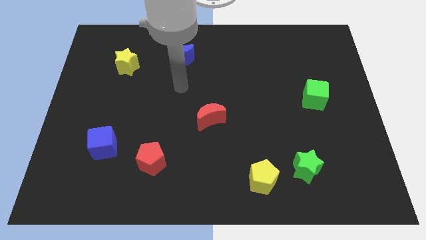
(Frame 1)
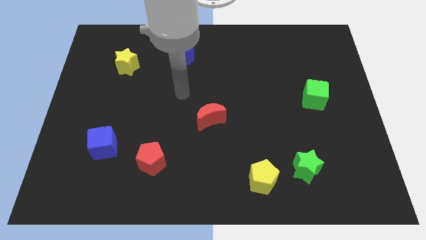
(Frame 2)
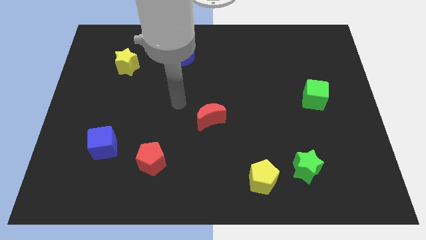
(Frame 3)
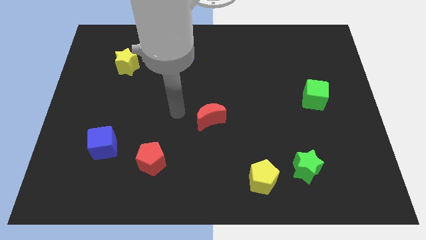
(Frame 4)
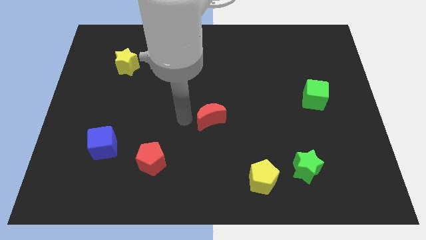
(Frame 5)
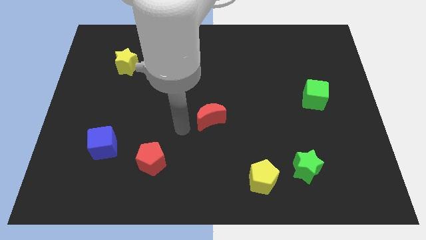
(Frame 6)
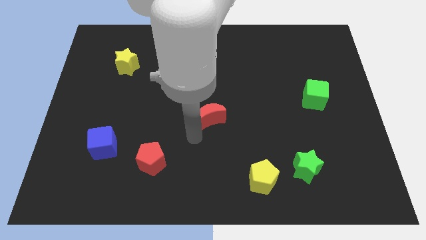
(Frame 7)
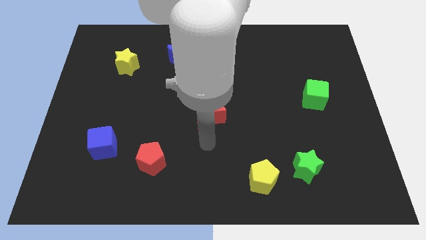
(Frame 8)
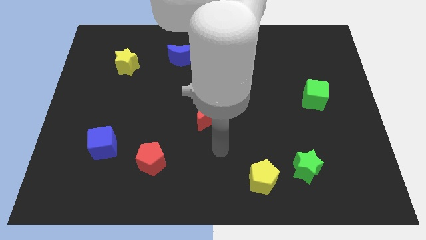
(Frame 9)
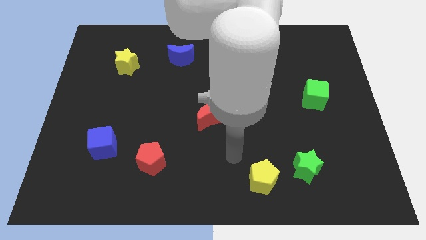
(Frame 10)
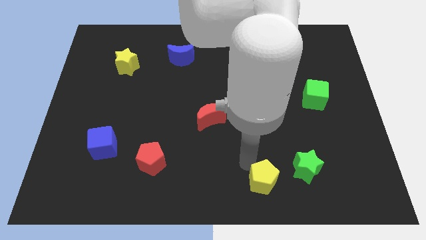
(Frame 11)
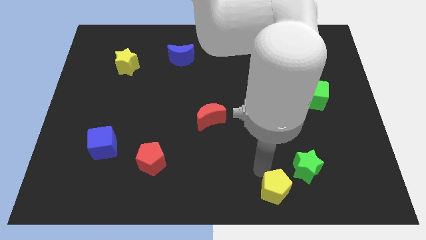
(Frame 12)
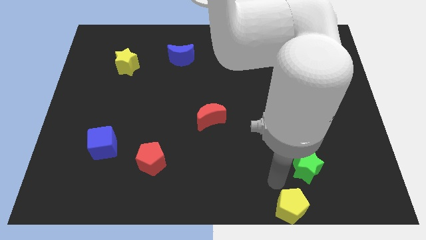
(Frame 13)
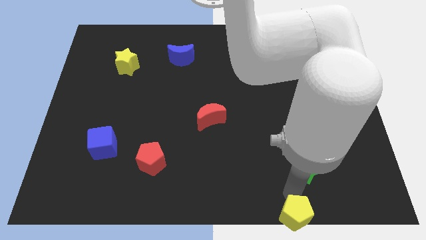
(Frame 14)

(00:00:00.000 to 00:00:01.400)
separate the green star from the yellow pentagon

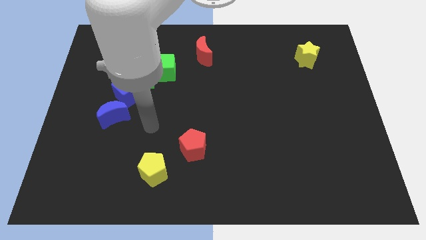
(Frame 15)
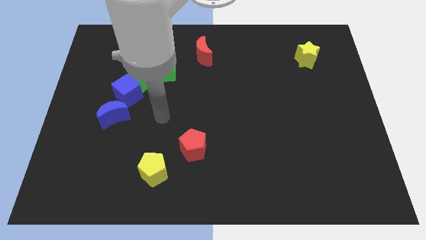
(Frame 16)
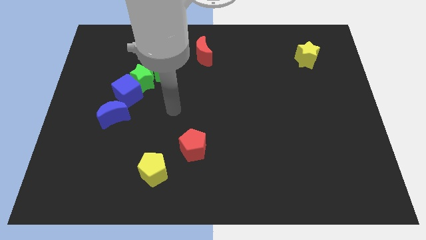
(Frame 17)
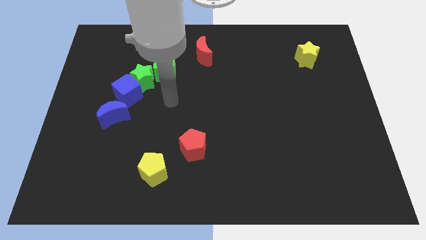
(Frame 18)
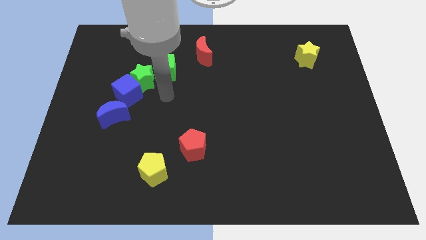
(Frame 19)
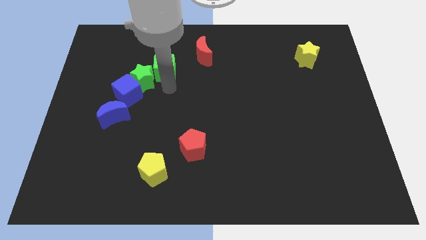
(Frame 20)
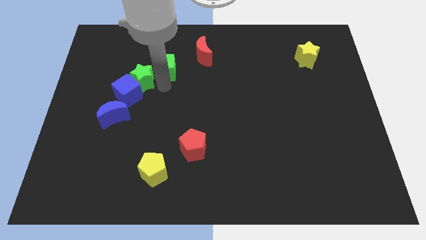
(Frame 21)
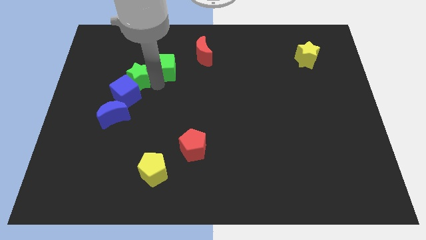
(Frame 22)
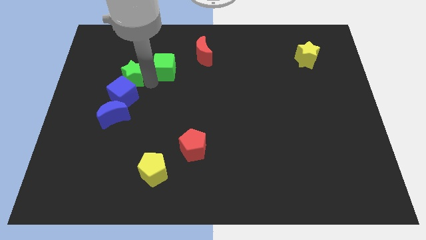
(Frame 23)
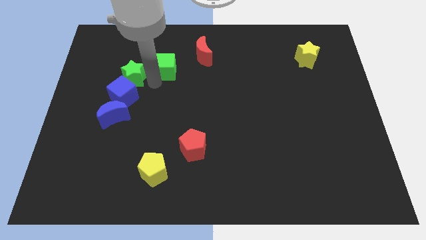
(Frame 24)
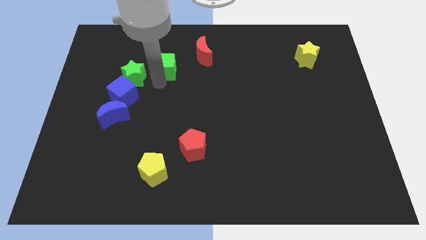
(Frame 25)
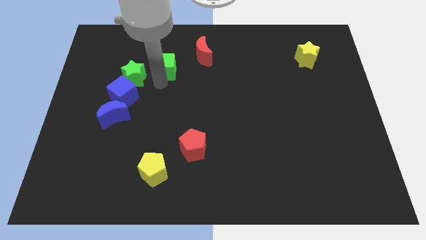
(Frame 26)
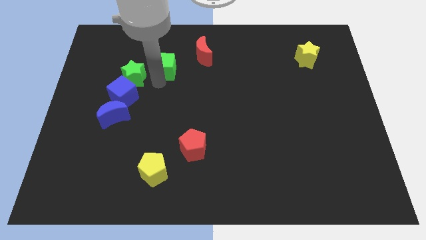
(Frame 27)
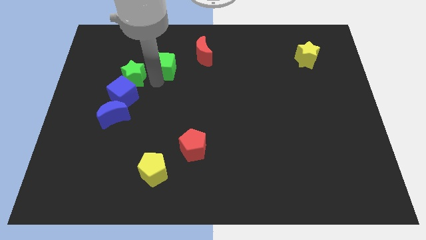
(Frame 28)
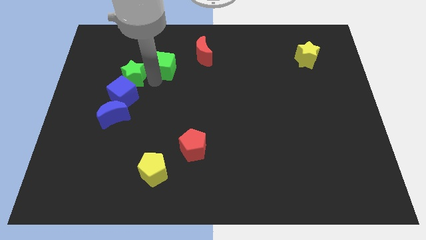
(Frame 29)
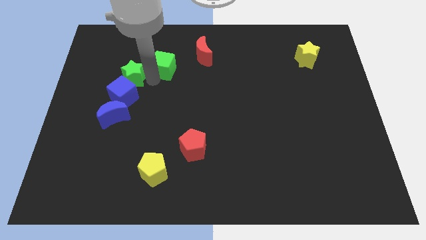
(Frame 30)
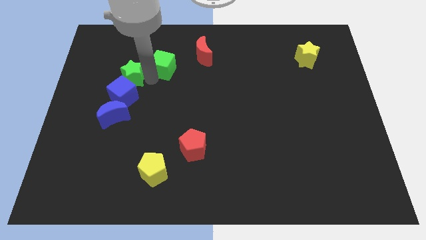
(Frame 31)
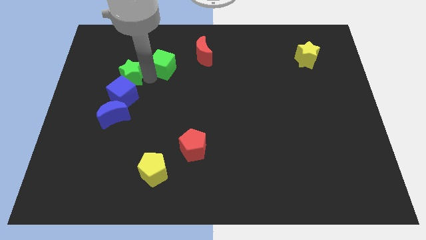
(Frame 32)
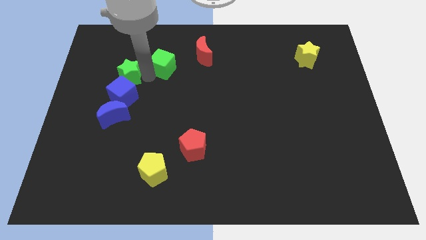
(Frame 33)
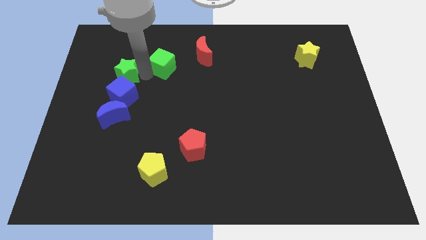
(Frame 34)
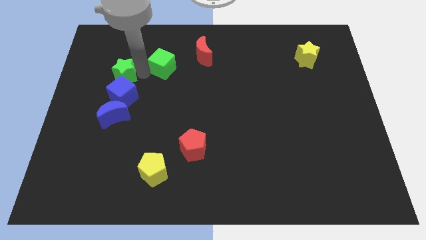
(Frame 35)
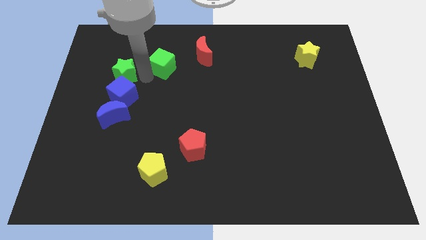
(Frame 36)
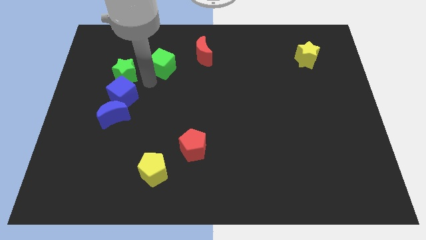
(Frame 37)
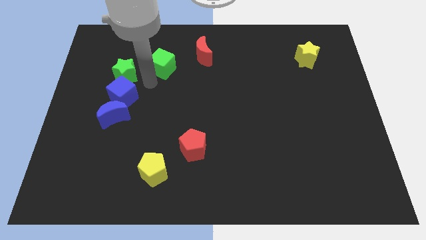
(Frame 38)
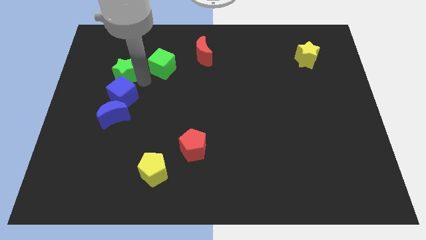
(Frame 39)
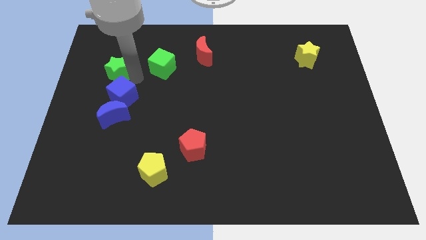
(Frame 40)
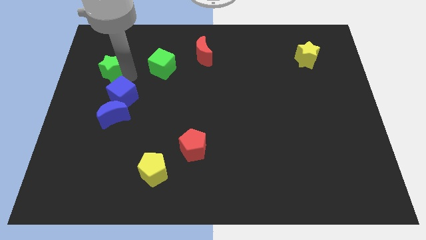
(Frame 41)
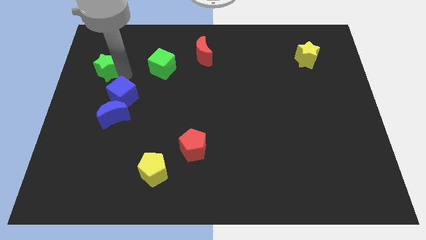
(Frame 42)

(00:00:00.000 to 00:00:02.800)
pull the green star apart from the blue cube and green cube

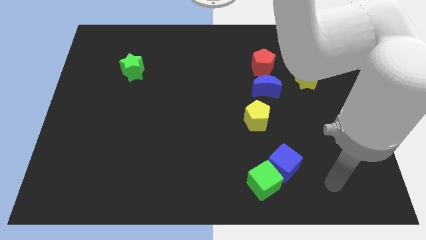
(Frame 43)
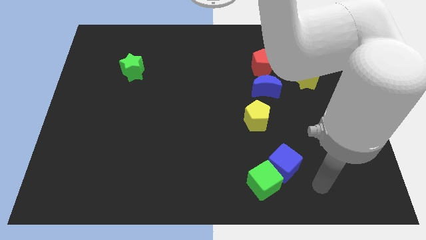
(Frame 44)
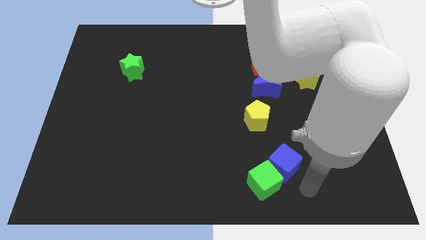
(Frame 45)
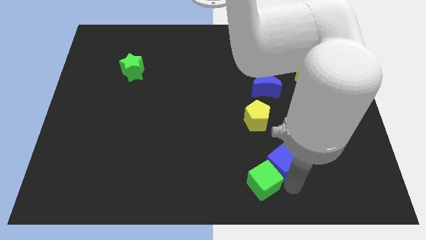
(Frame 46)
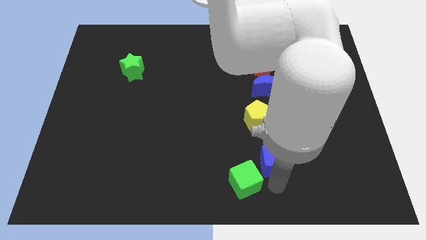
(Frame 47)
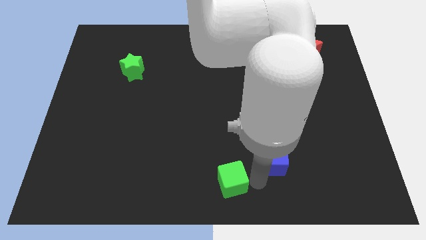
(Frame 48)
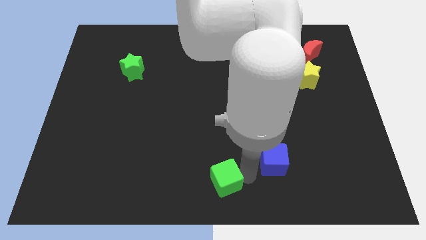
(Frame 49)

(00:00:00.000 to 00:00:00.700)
move the blue cube away from the green cube

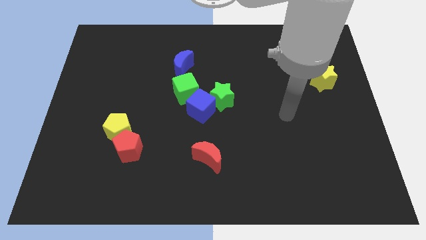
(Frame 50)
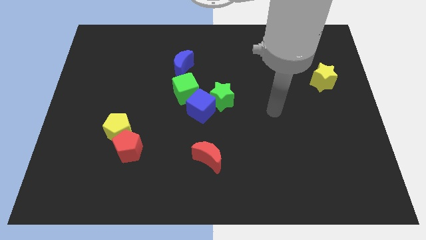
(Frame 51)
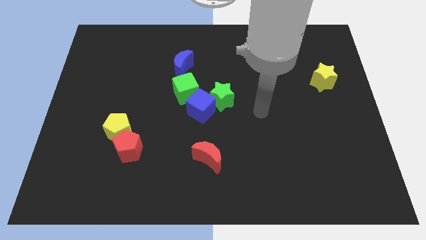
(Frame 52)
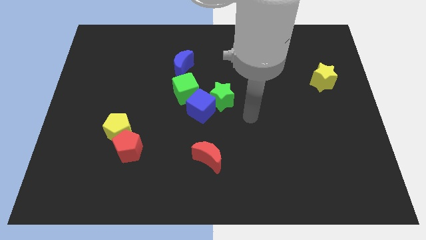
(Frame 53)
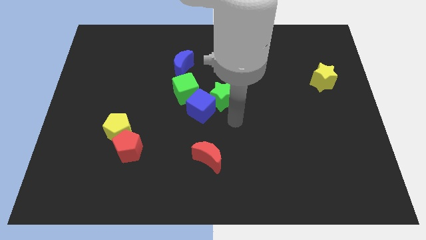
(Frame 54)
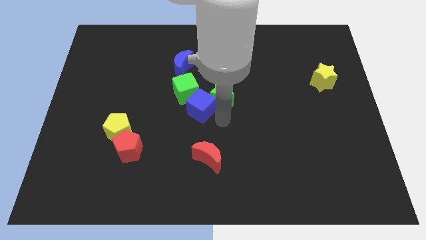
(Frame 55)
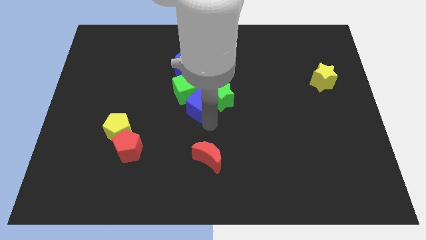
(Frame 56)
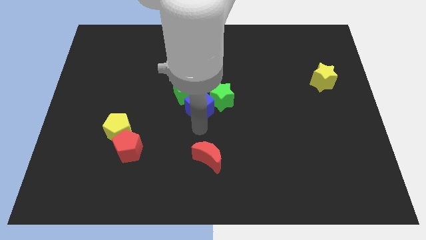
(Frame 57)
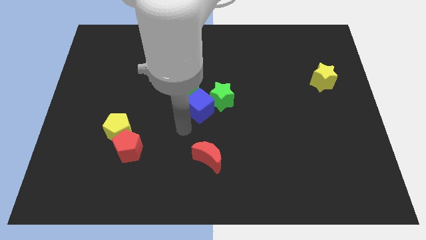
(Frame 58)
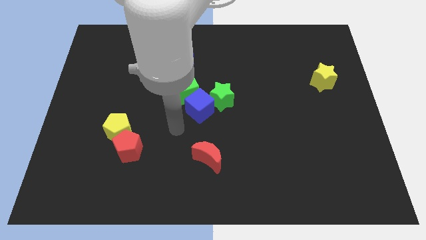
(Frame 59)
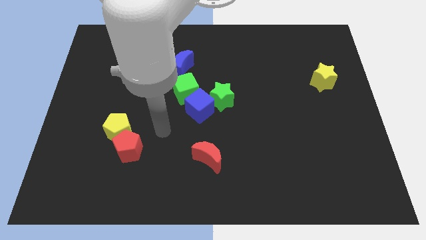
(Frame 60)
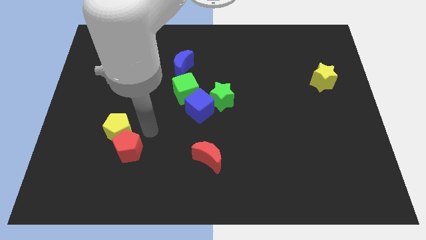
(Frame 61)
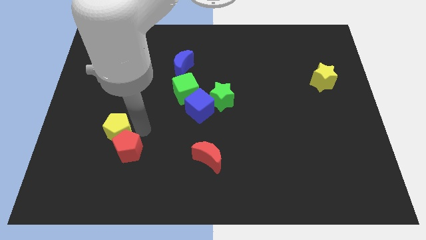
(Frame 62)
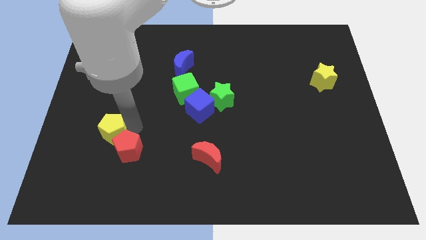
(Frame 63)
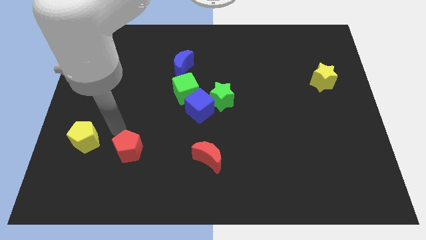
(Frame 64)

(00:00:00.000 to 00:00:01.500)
pull the red pentagon apart from the yellow pentagon

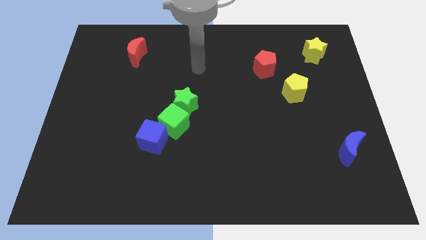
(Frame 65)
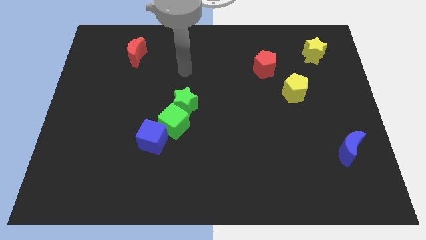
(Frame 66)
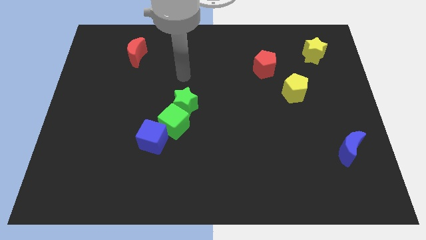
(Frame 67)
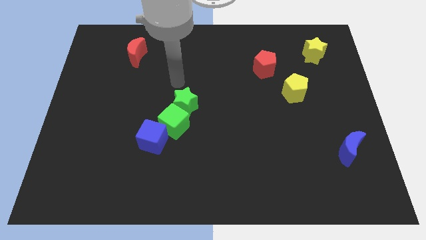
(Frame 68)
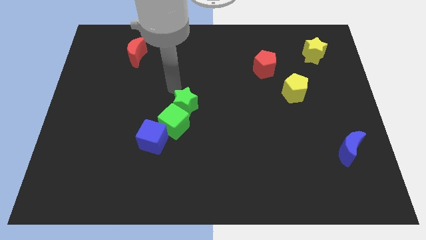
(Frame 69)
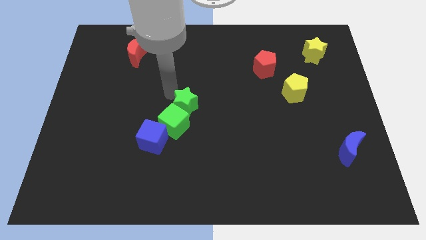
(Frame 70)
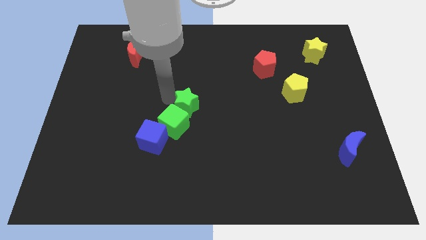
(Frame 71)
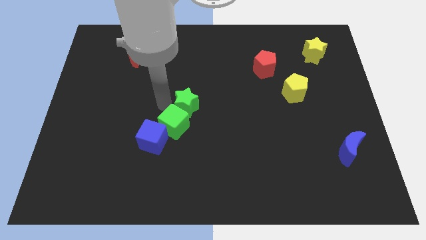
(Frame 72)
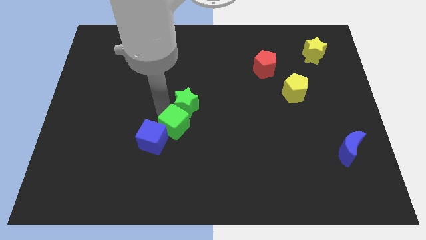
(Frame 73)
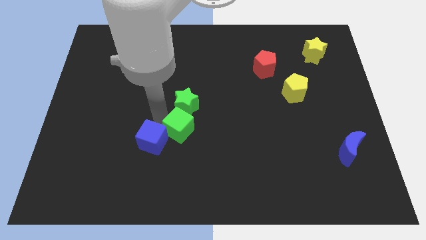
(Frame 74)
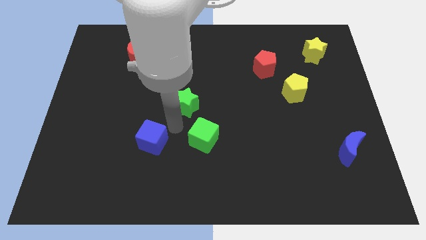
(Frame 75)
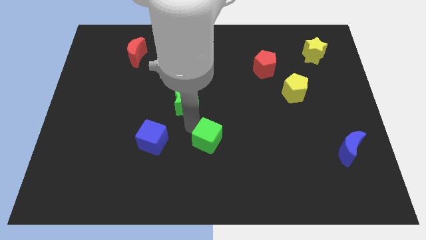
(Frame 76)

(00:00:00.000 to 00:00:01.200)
pull the green star apart from the green cube

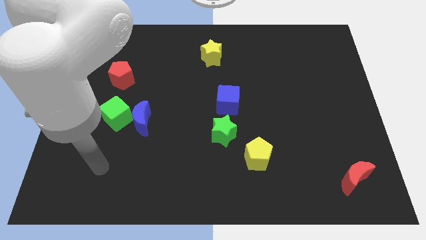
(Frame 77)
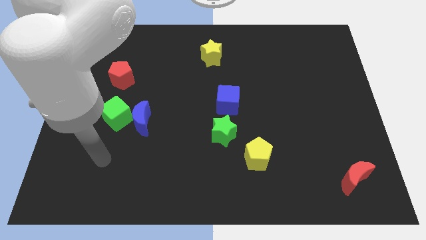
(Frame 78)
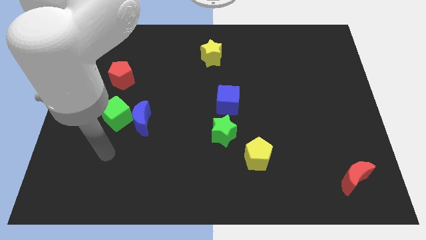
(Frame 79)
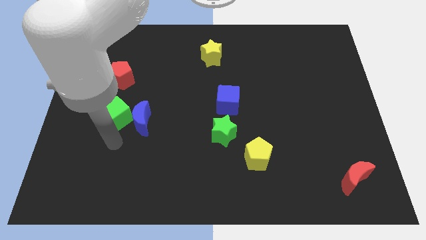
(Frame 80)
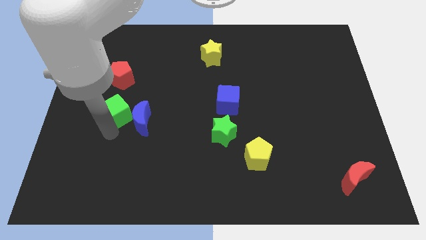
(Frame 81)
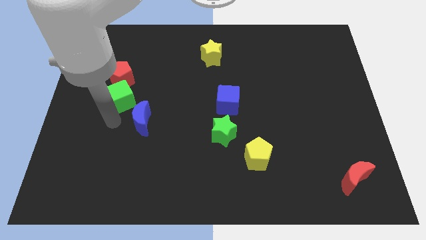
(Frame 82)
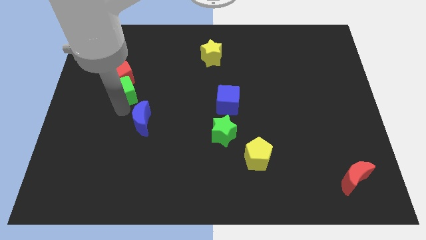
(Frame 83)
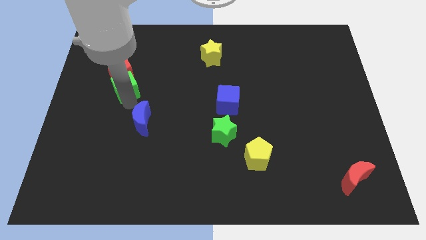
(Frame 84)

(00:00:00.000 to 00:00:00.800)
separate the blue moon from the green cube

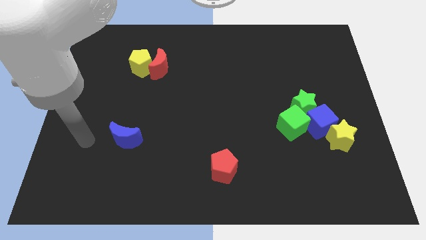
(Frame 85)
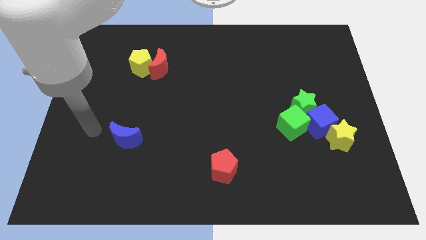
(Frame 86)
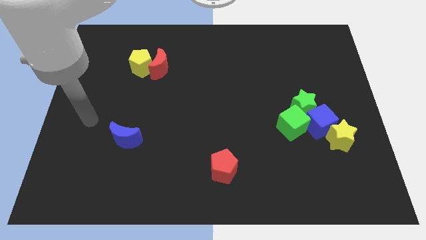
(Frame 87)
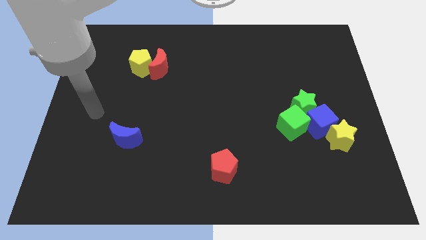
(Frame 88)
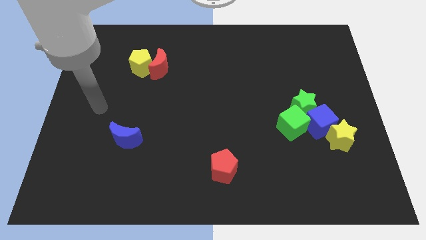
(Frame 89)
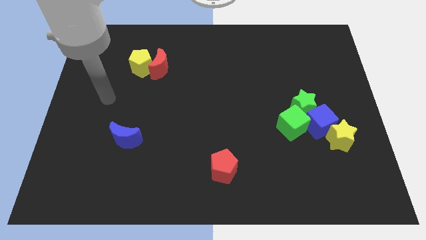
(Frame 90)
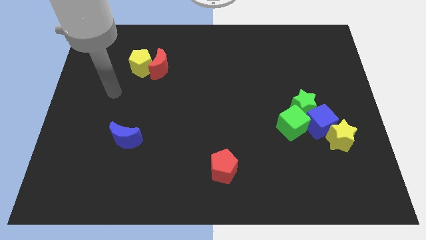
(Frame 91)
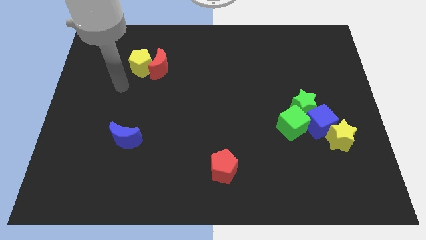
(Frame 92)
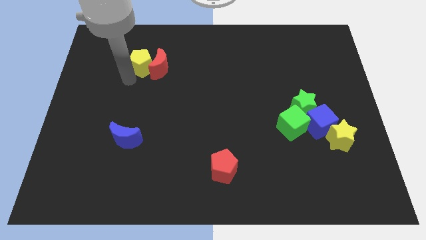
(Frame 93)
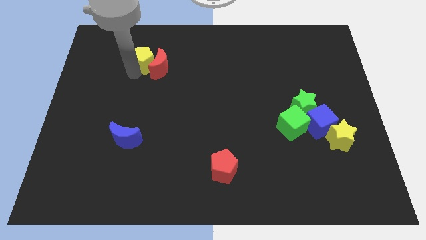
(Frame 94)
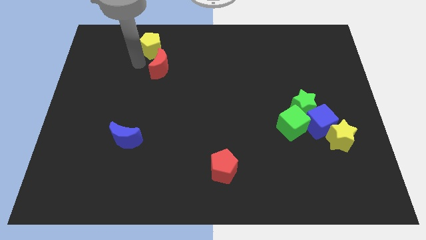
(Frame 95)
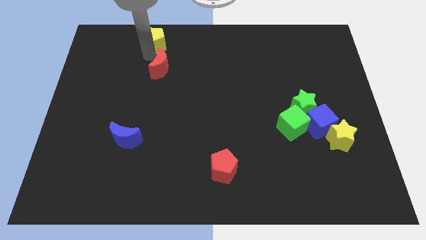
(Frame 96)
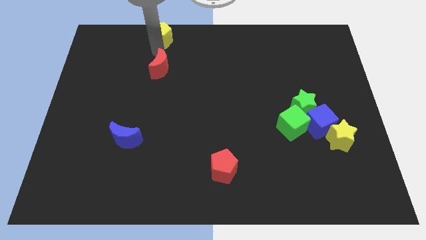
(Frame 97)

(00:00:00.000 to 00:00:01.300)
separate the red moon from the yellow pentagon
